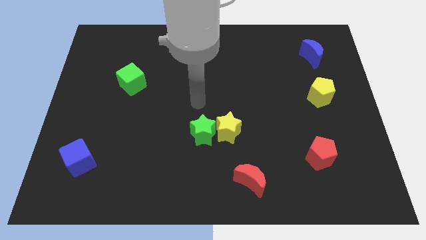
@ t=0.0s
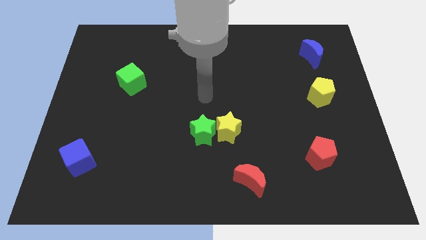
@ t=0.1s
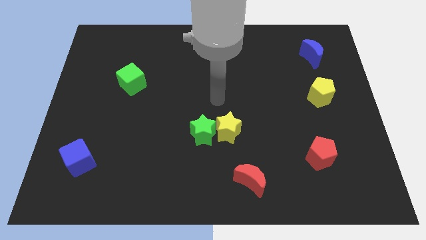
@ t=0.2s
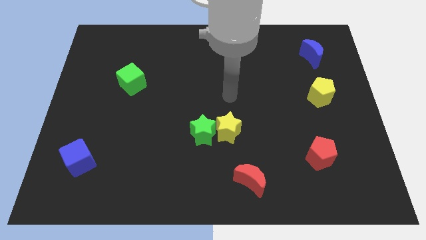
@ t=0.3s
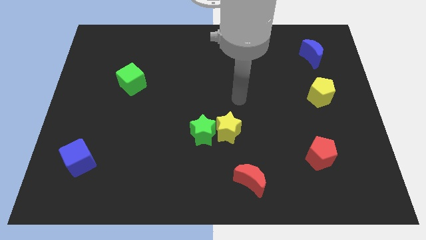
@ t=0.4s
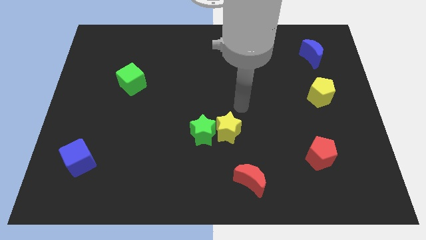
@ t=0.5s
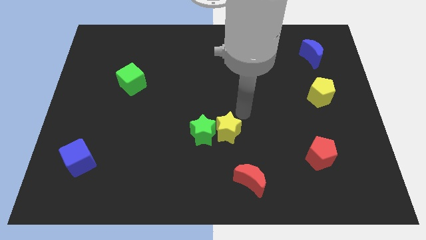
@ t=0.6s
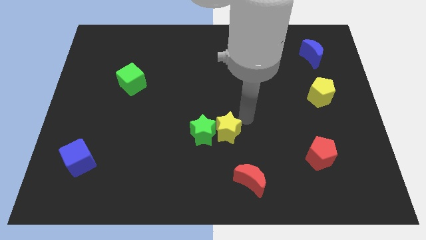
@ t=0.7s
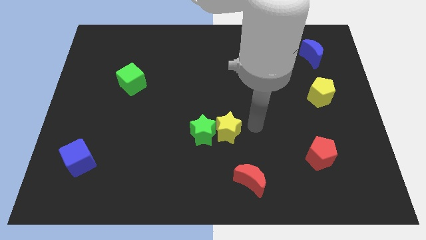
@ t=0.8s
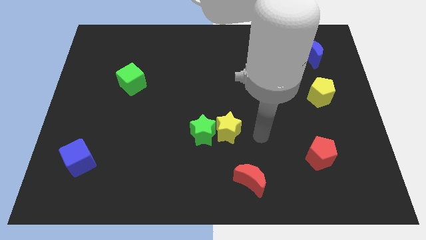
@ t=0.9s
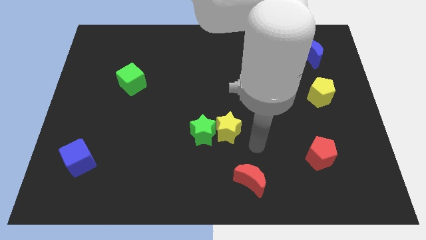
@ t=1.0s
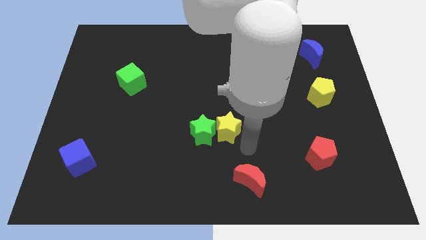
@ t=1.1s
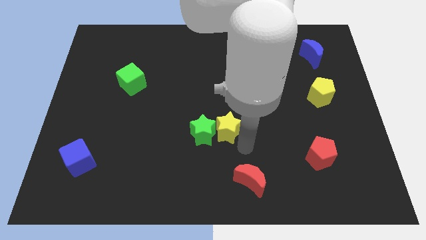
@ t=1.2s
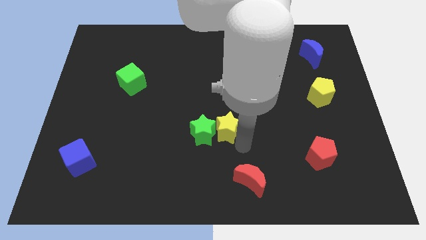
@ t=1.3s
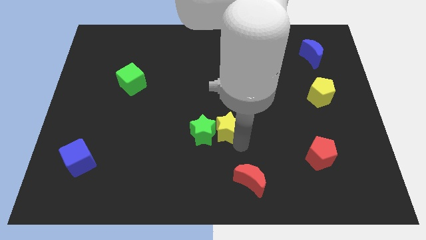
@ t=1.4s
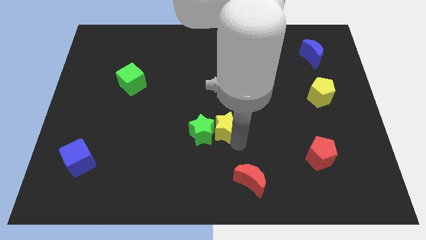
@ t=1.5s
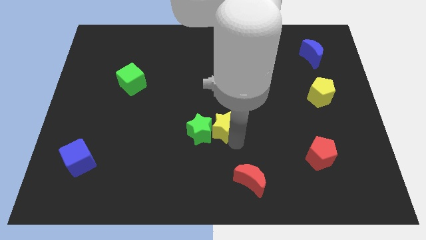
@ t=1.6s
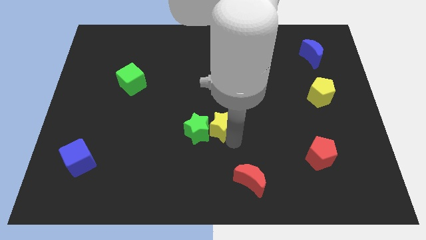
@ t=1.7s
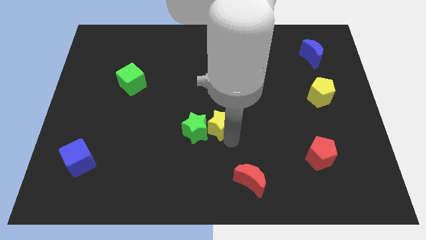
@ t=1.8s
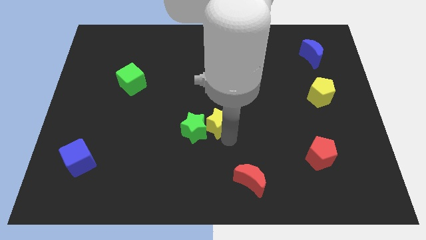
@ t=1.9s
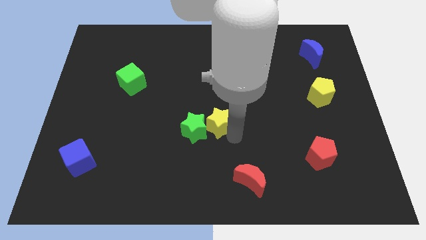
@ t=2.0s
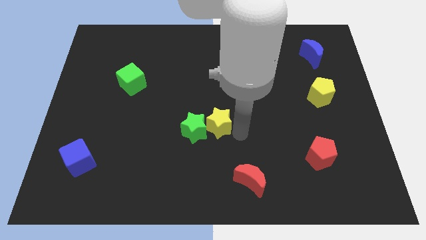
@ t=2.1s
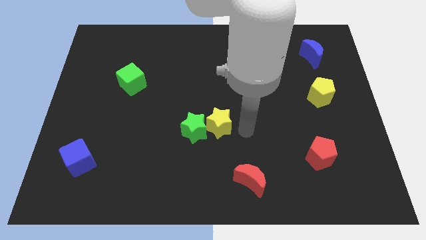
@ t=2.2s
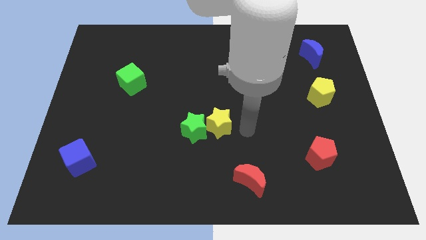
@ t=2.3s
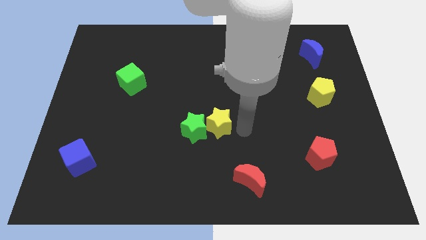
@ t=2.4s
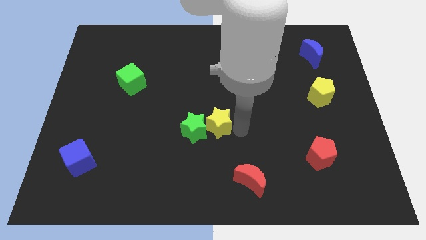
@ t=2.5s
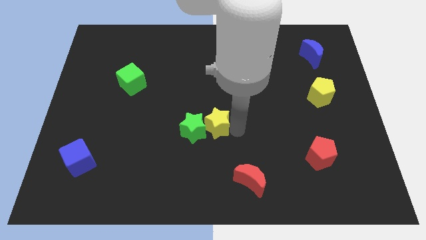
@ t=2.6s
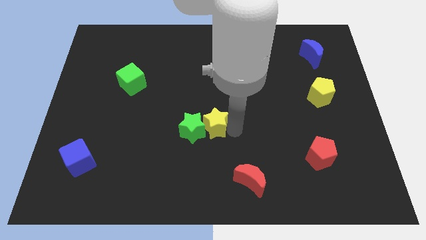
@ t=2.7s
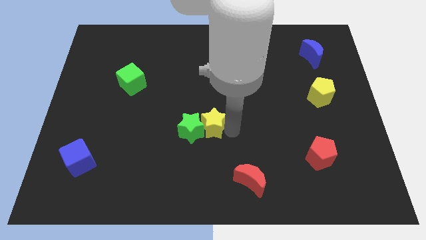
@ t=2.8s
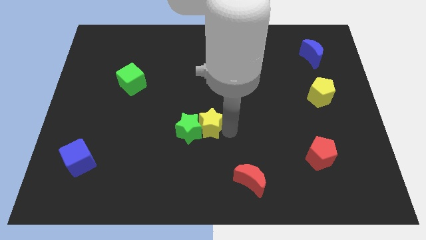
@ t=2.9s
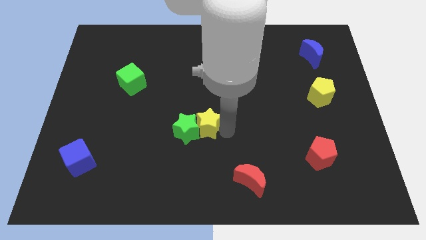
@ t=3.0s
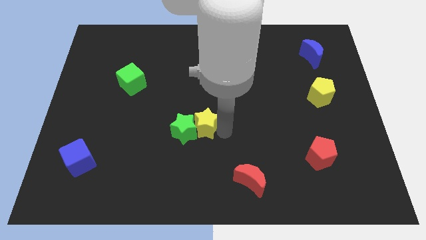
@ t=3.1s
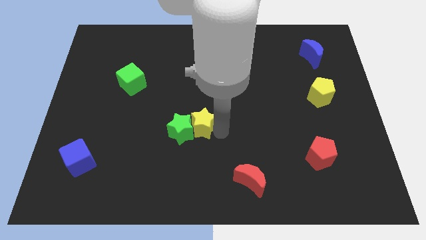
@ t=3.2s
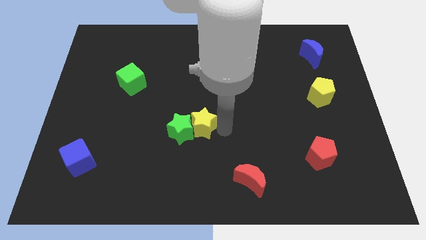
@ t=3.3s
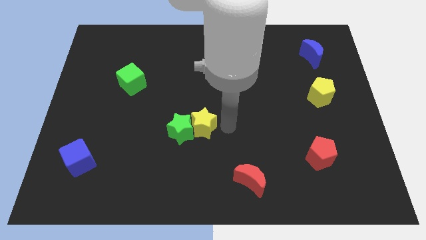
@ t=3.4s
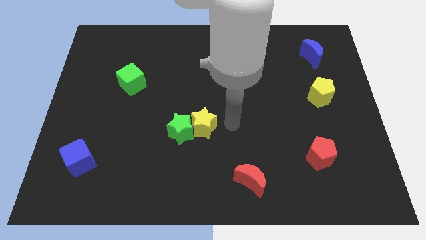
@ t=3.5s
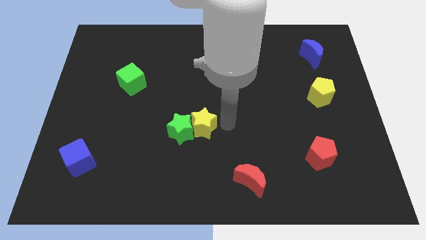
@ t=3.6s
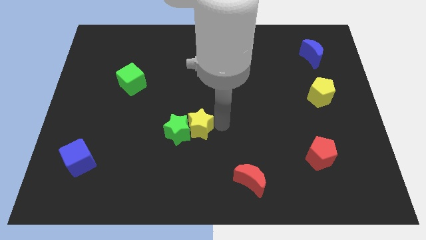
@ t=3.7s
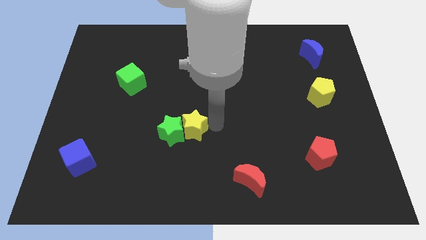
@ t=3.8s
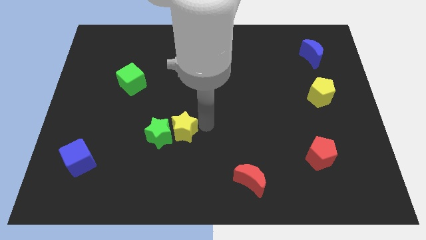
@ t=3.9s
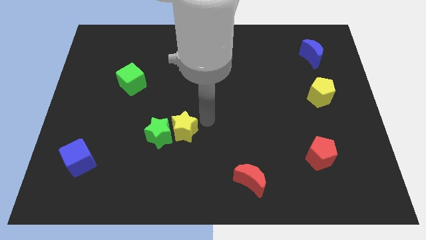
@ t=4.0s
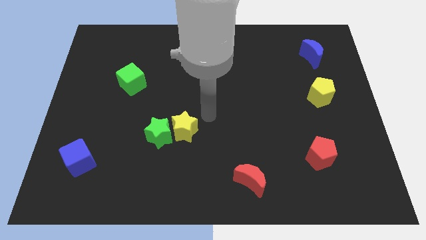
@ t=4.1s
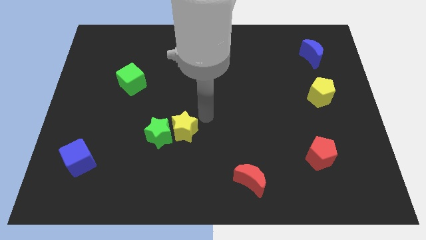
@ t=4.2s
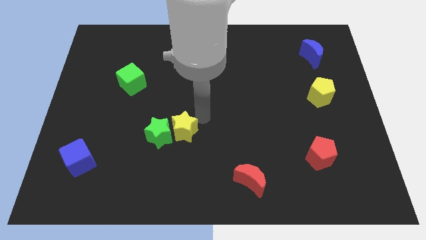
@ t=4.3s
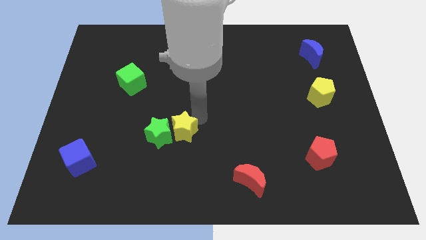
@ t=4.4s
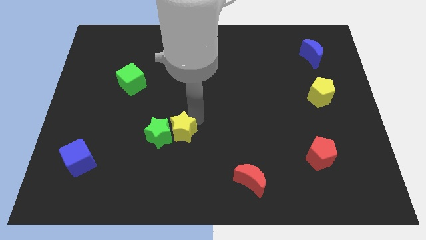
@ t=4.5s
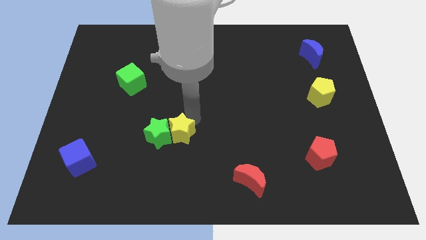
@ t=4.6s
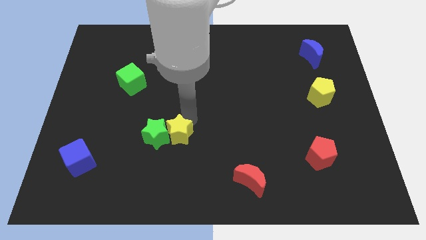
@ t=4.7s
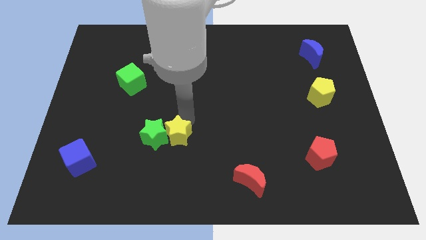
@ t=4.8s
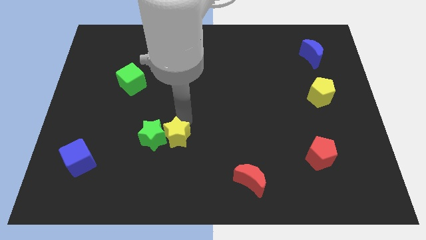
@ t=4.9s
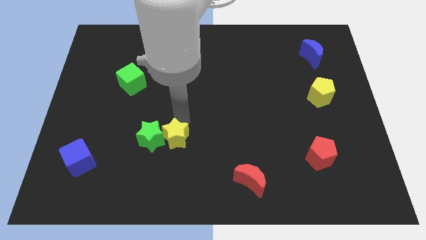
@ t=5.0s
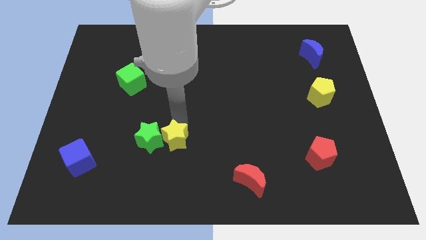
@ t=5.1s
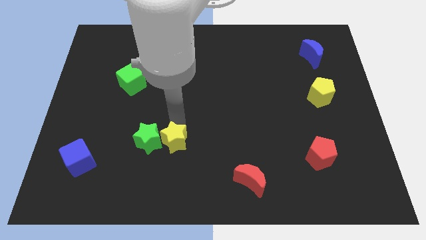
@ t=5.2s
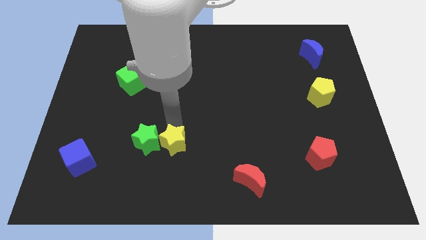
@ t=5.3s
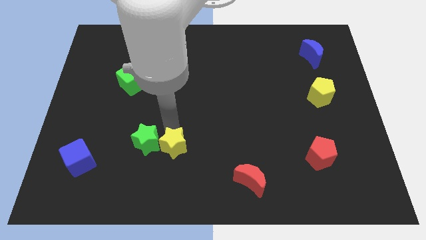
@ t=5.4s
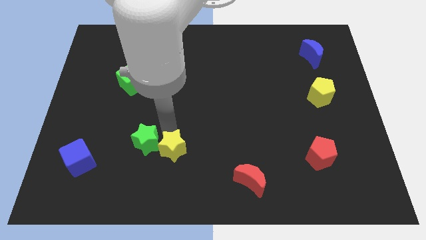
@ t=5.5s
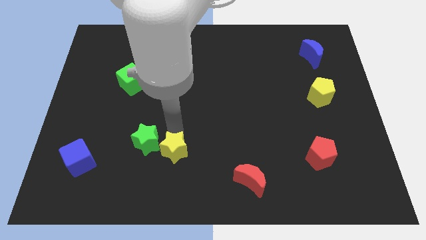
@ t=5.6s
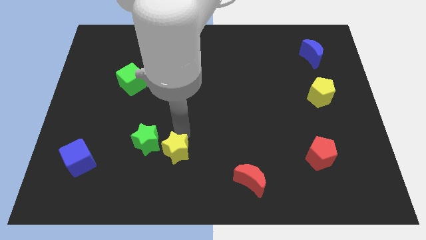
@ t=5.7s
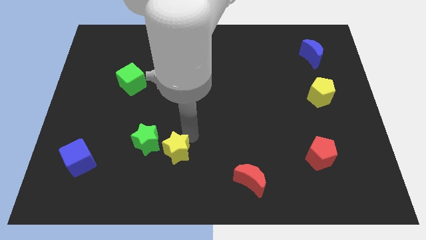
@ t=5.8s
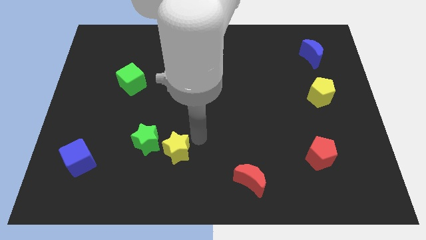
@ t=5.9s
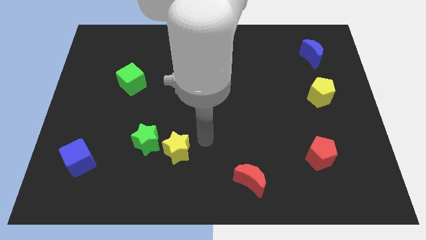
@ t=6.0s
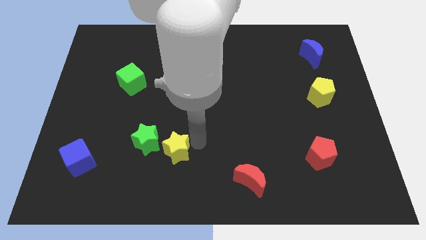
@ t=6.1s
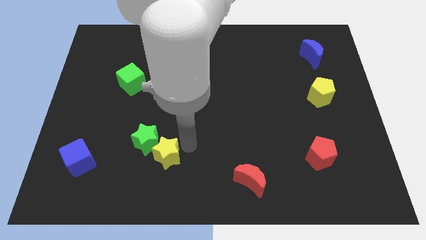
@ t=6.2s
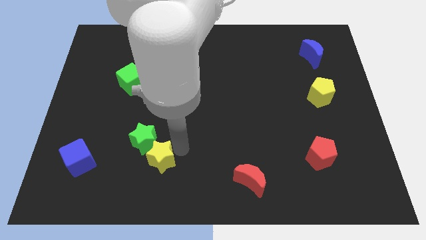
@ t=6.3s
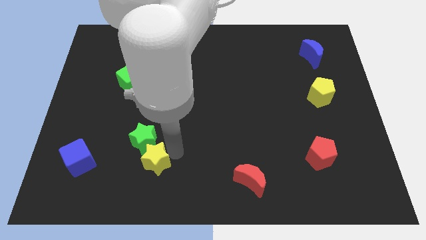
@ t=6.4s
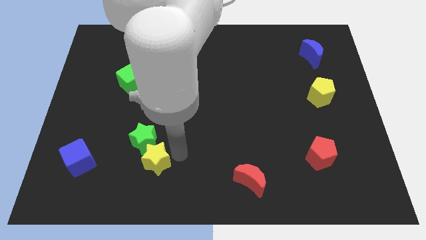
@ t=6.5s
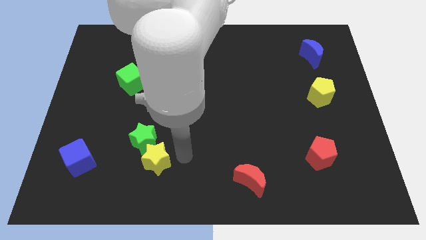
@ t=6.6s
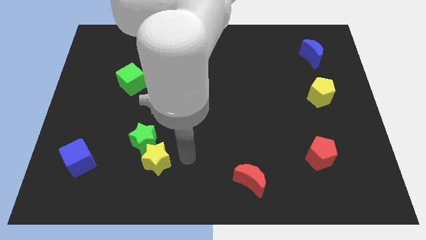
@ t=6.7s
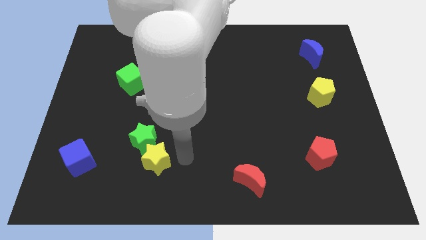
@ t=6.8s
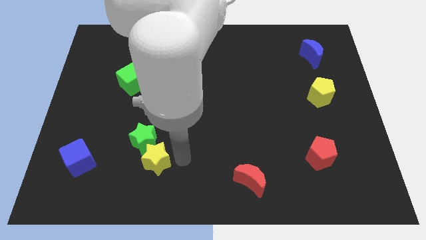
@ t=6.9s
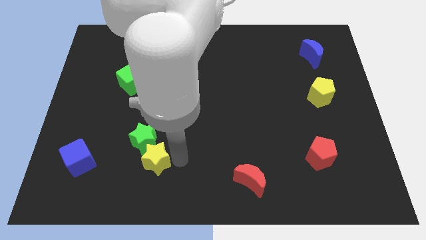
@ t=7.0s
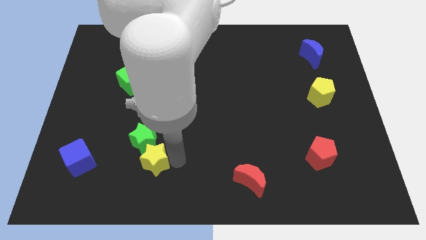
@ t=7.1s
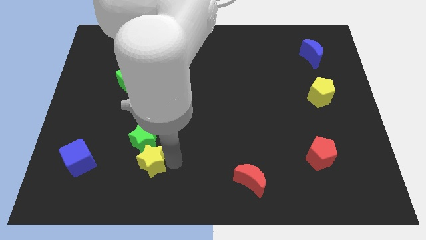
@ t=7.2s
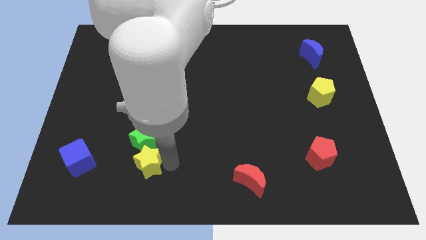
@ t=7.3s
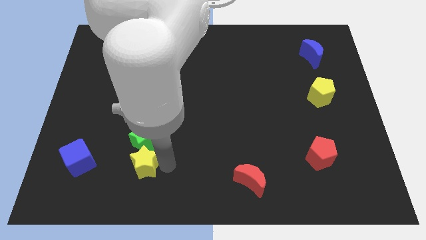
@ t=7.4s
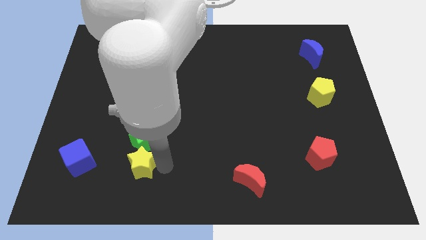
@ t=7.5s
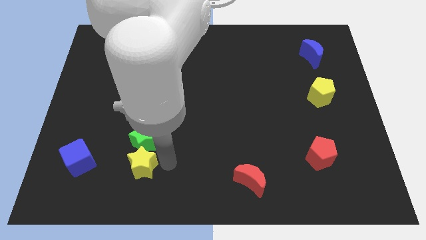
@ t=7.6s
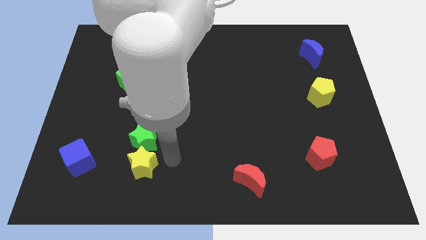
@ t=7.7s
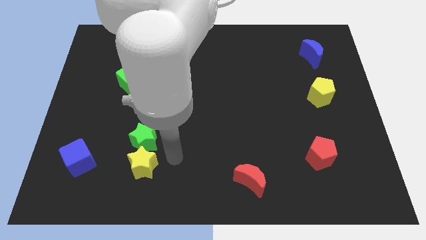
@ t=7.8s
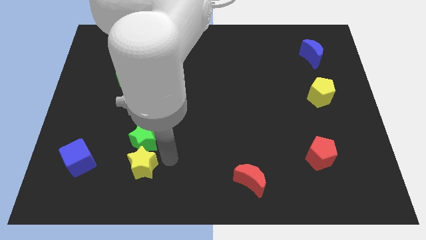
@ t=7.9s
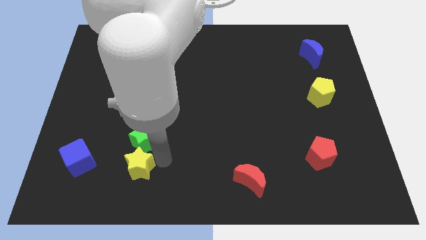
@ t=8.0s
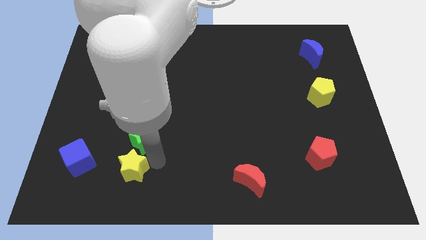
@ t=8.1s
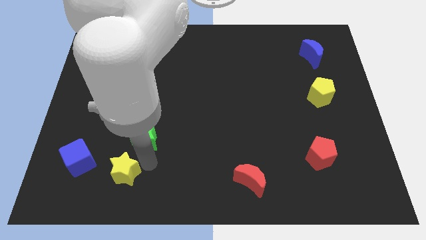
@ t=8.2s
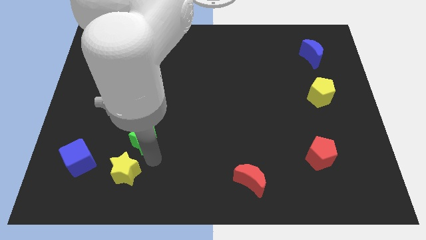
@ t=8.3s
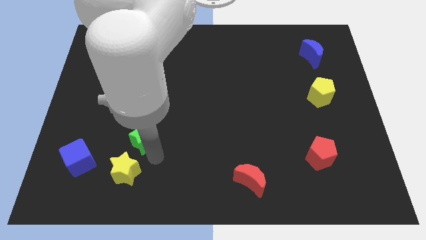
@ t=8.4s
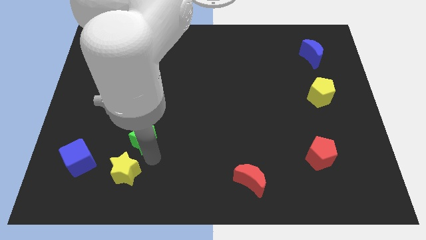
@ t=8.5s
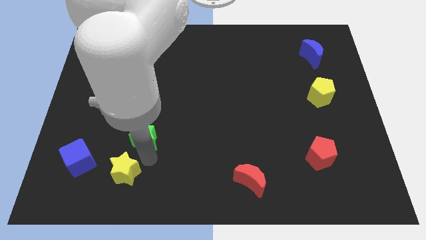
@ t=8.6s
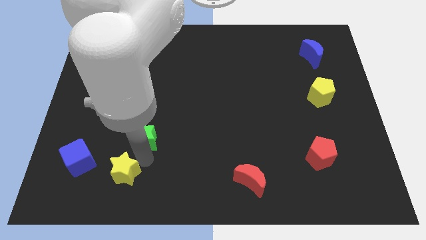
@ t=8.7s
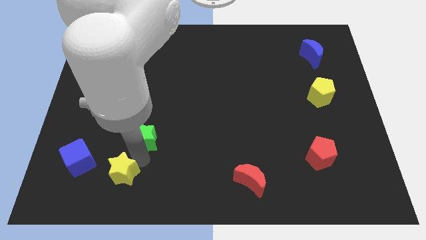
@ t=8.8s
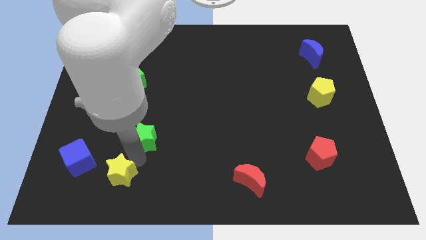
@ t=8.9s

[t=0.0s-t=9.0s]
put the yellow star to the bottom right side of the blue cube
